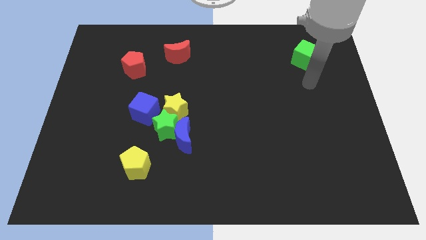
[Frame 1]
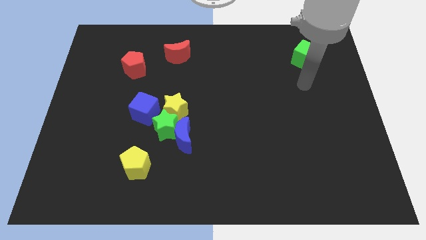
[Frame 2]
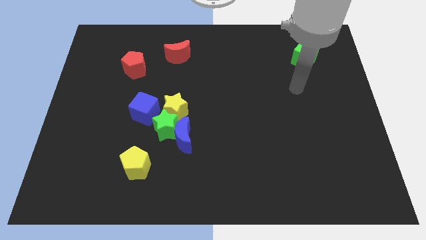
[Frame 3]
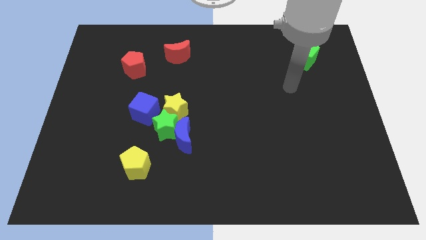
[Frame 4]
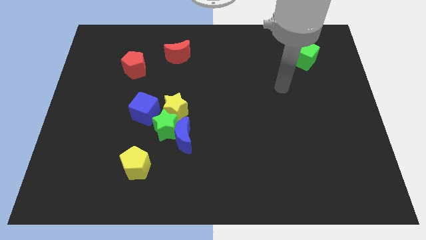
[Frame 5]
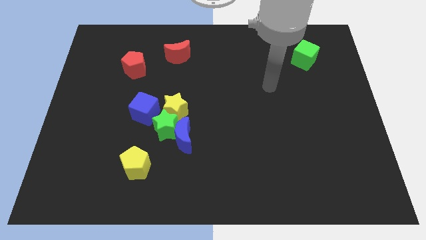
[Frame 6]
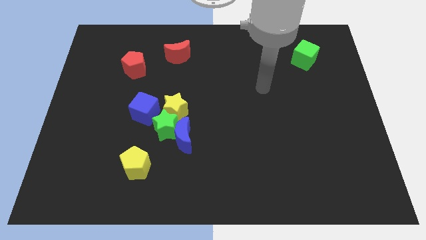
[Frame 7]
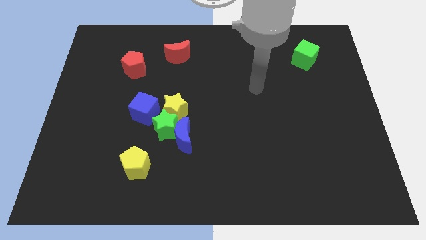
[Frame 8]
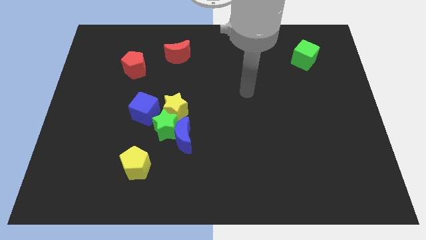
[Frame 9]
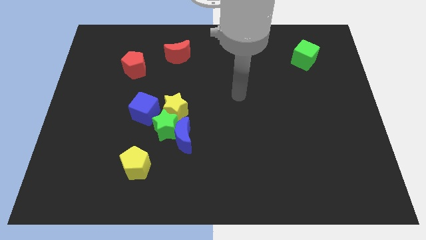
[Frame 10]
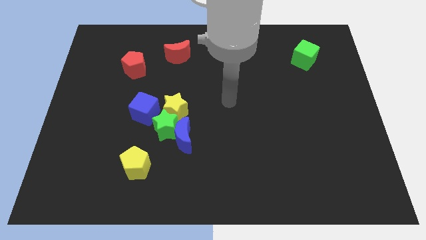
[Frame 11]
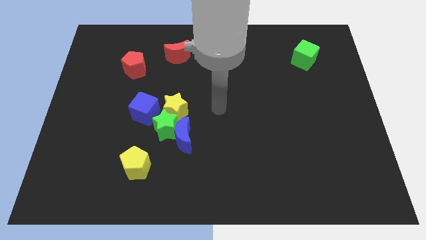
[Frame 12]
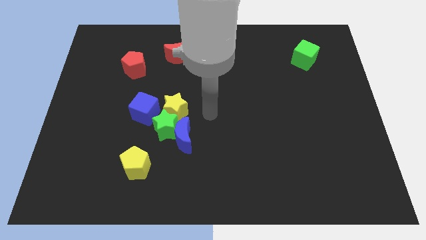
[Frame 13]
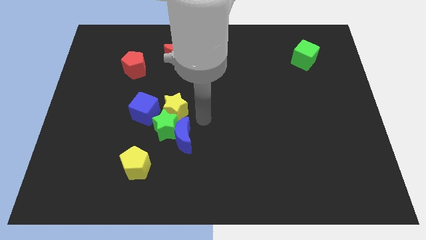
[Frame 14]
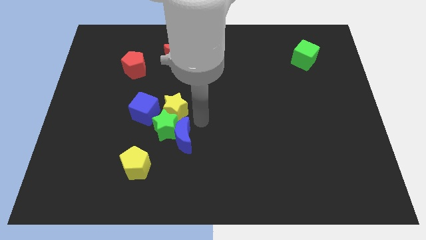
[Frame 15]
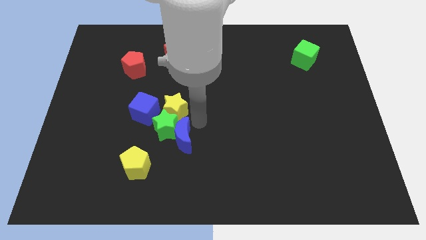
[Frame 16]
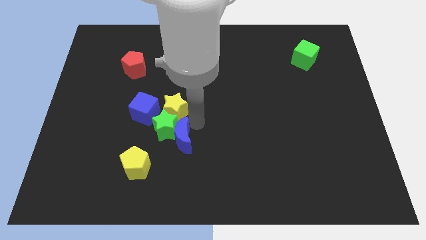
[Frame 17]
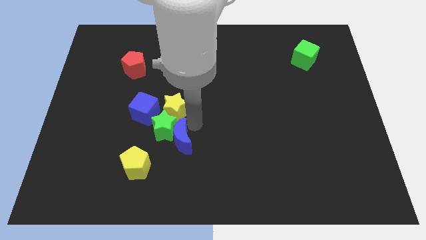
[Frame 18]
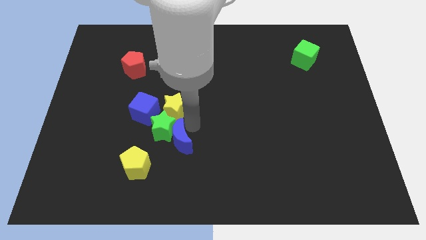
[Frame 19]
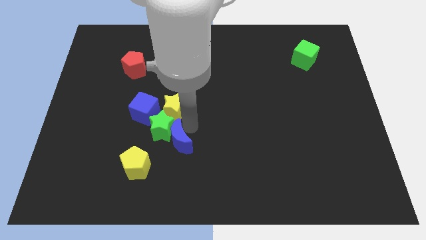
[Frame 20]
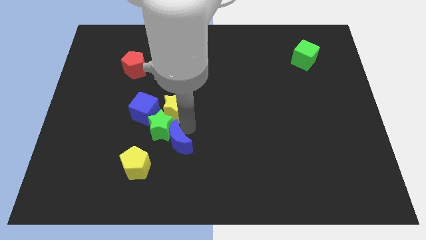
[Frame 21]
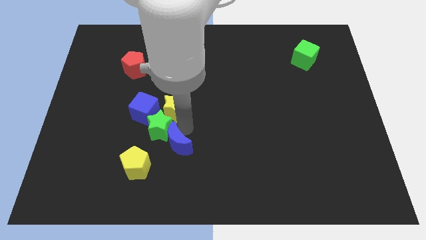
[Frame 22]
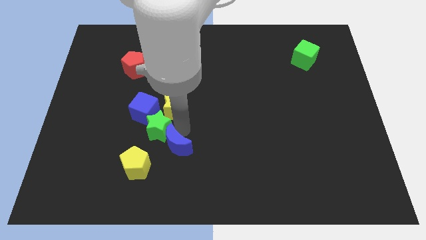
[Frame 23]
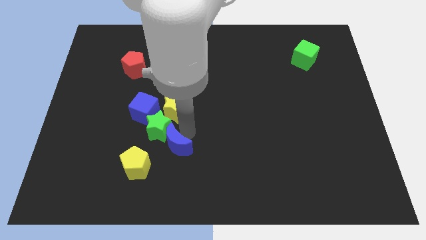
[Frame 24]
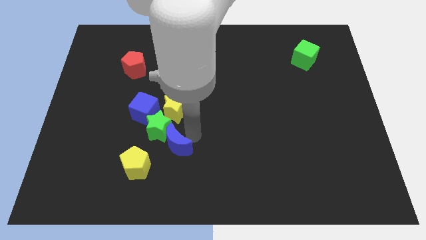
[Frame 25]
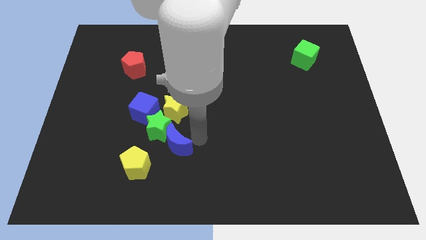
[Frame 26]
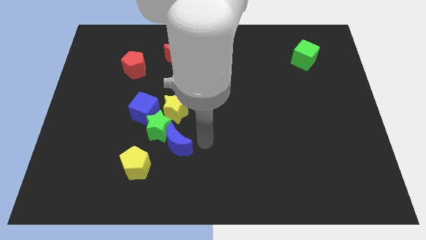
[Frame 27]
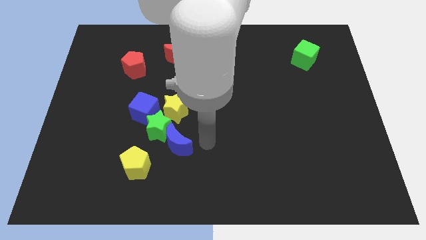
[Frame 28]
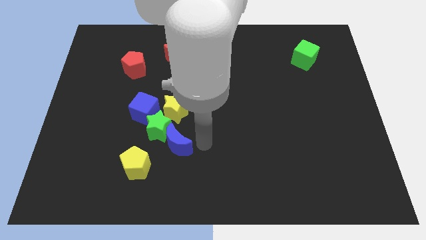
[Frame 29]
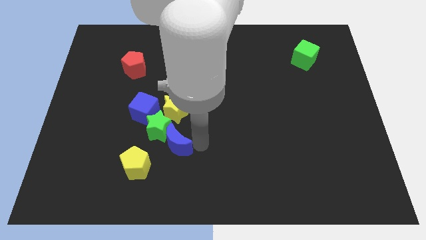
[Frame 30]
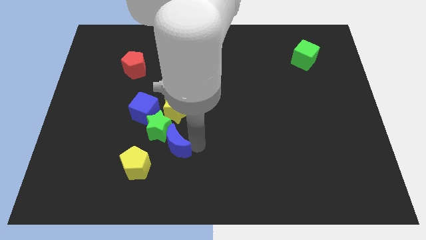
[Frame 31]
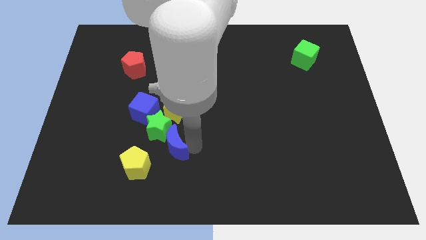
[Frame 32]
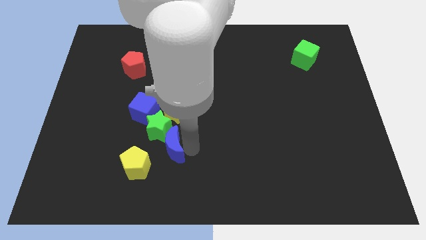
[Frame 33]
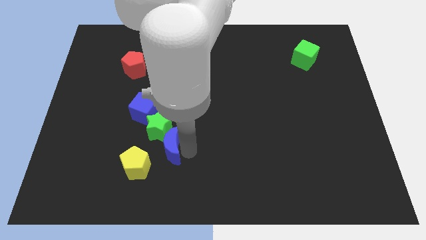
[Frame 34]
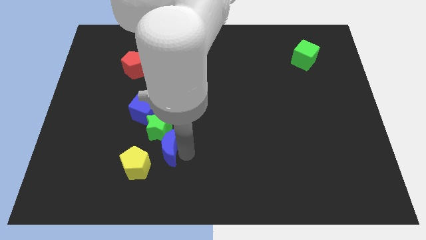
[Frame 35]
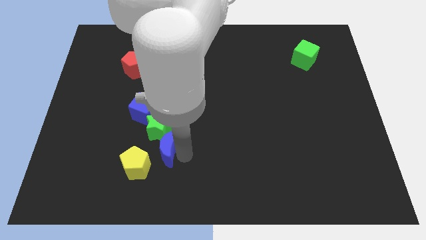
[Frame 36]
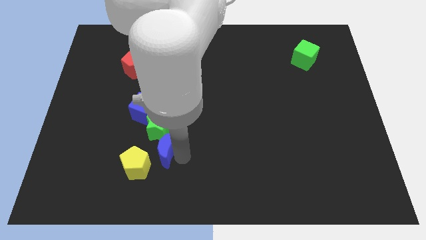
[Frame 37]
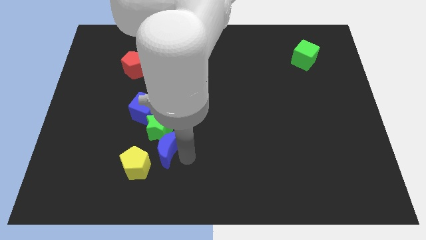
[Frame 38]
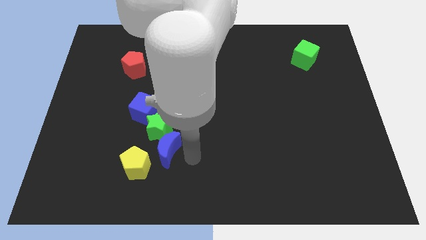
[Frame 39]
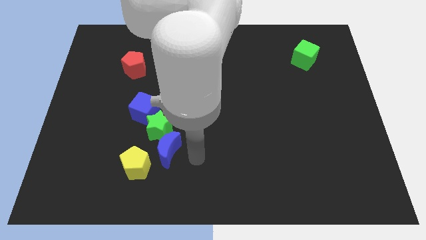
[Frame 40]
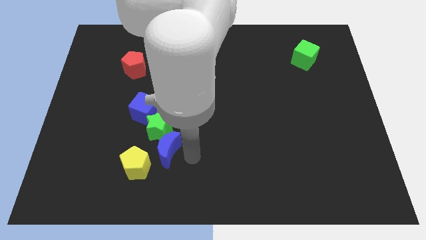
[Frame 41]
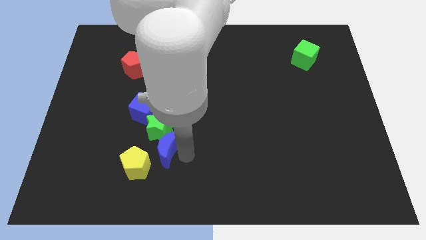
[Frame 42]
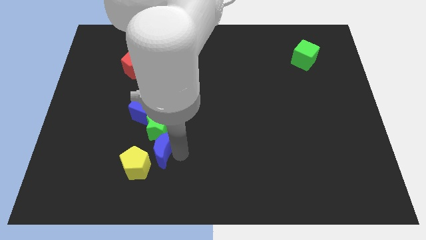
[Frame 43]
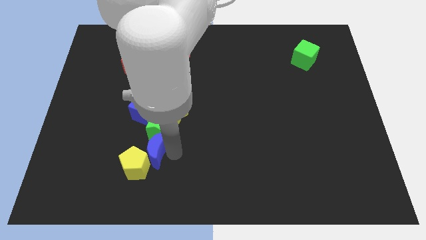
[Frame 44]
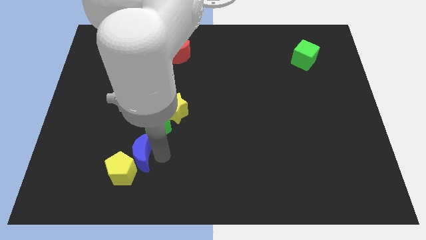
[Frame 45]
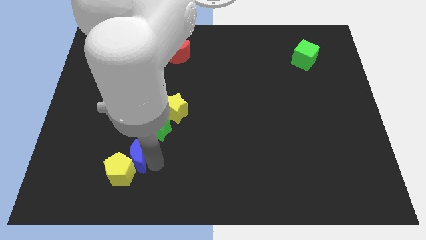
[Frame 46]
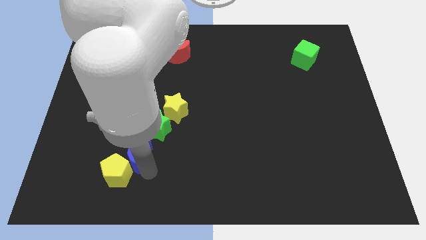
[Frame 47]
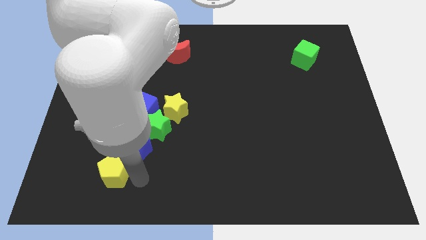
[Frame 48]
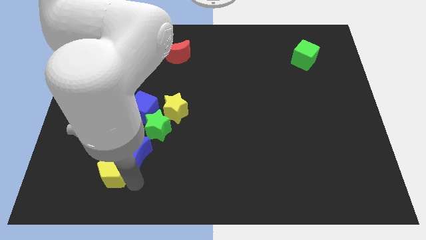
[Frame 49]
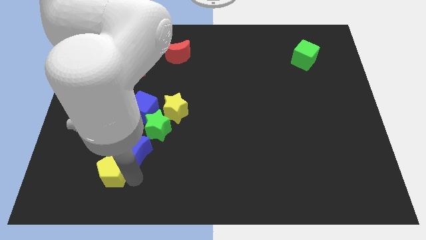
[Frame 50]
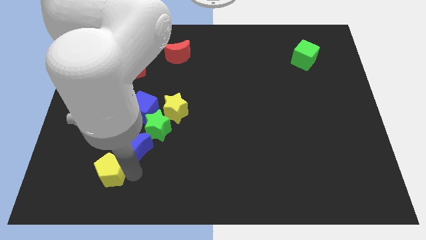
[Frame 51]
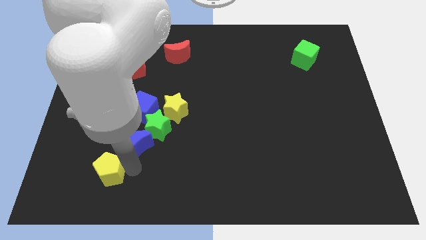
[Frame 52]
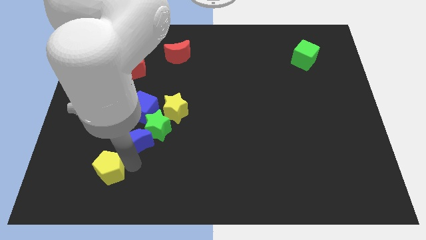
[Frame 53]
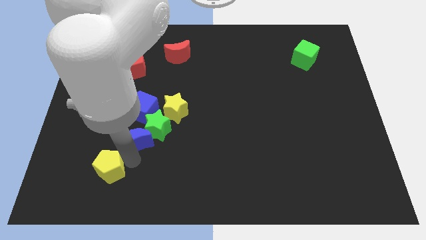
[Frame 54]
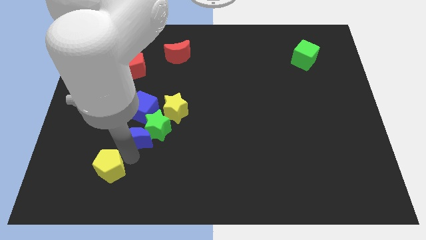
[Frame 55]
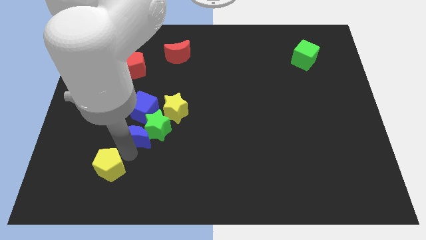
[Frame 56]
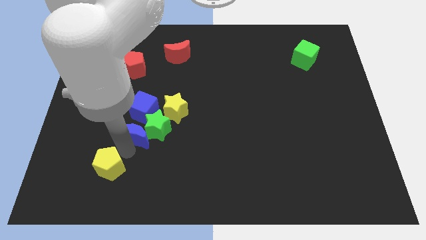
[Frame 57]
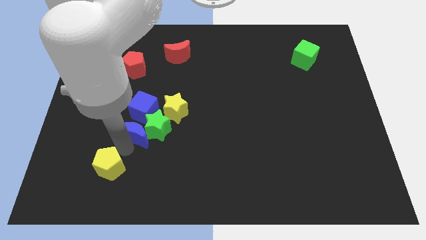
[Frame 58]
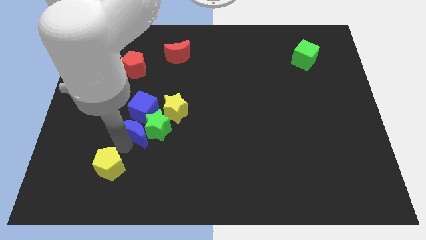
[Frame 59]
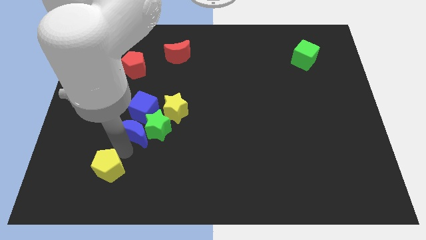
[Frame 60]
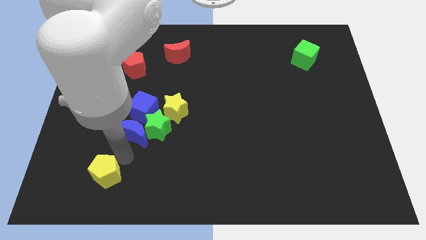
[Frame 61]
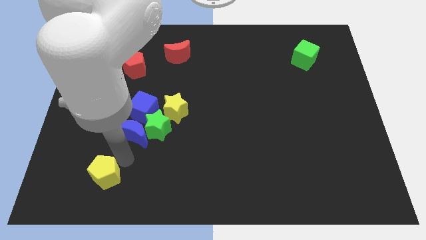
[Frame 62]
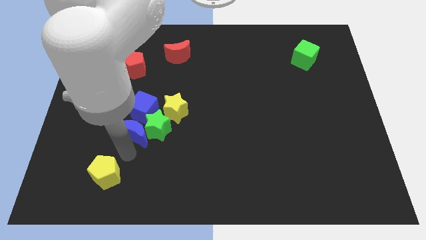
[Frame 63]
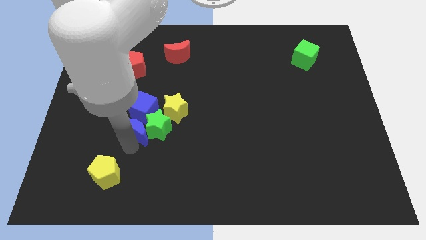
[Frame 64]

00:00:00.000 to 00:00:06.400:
slide the blue moon next to the blue cube

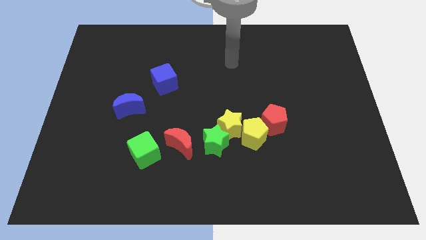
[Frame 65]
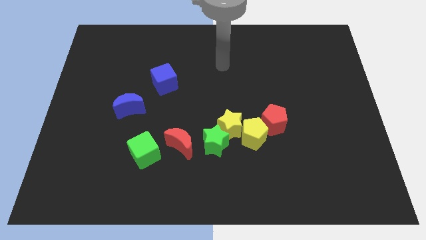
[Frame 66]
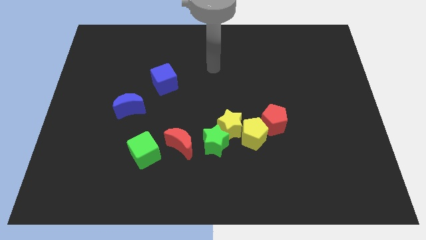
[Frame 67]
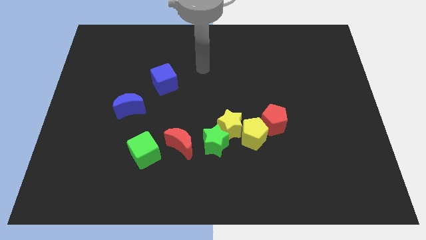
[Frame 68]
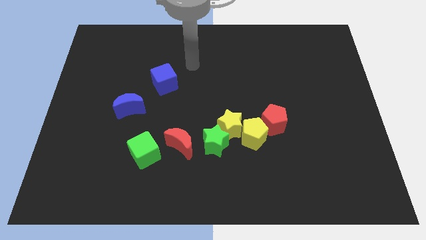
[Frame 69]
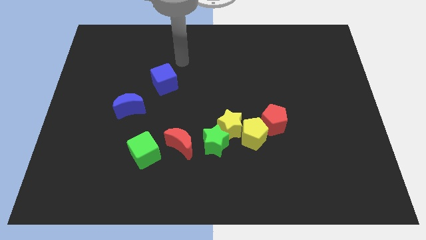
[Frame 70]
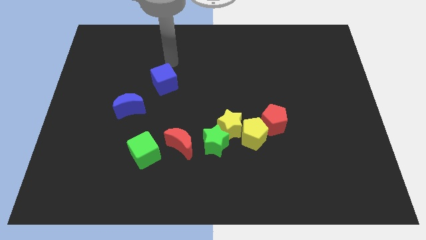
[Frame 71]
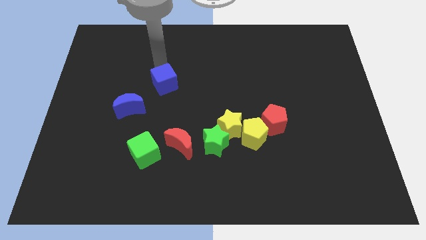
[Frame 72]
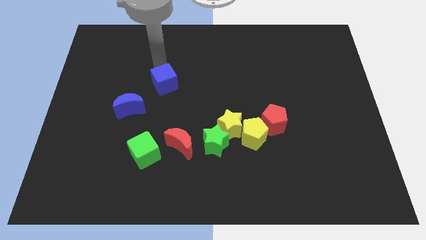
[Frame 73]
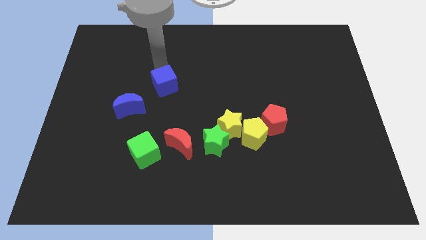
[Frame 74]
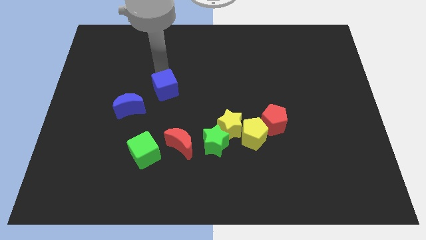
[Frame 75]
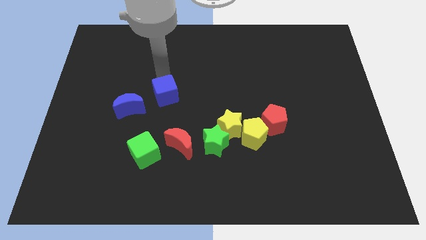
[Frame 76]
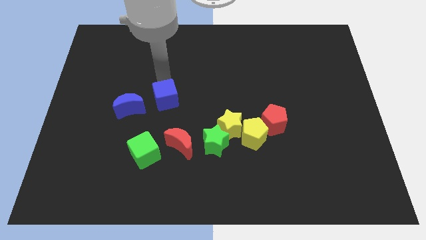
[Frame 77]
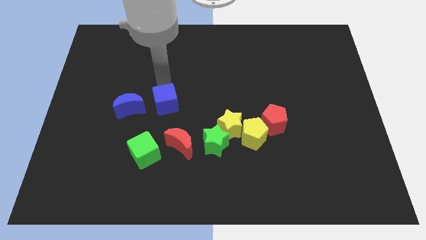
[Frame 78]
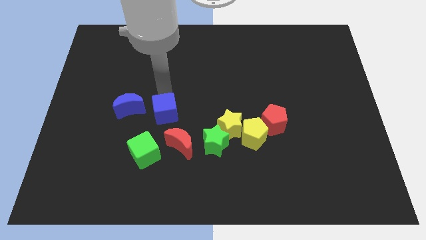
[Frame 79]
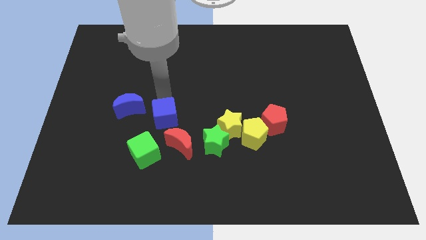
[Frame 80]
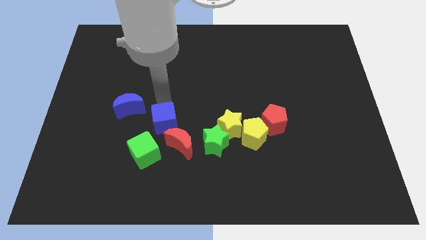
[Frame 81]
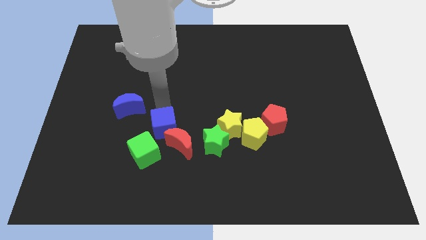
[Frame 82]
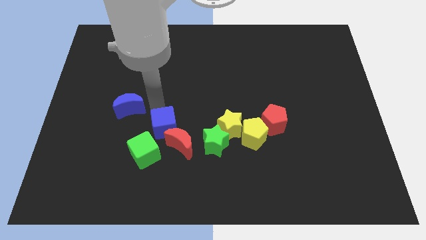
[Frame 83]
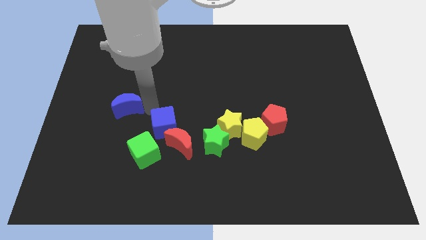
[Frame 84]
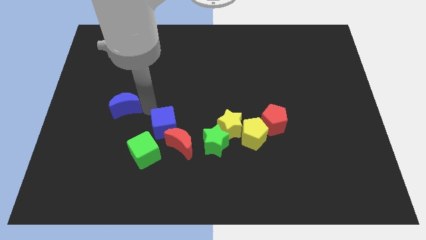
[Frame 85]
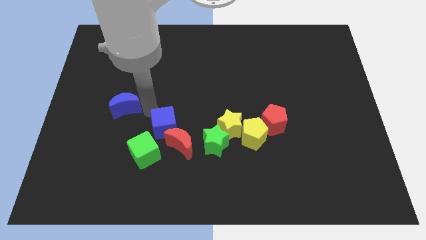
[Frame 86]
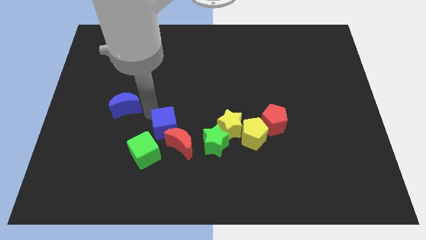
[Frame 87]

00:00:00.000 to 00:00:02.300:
move the blue cube towards the red moon
